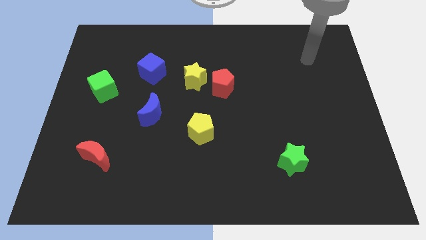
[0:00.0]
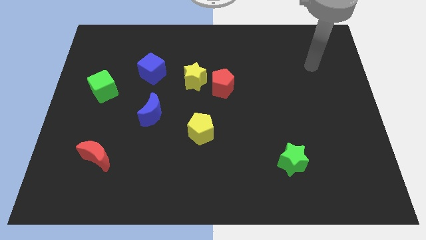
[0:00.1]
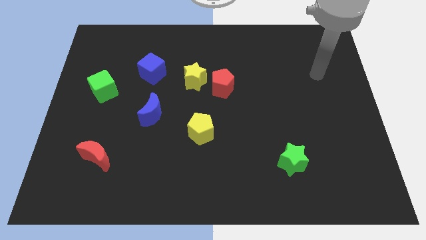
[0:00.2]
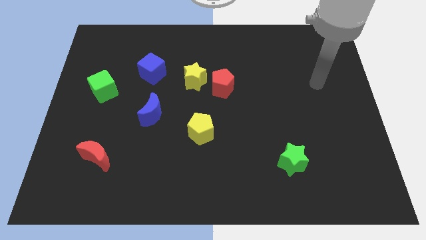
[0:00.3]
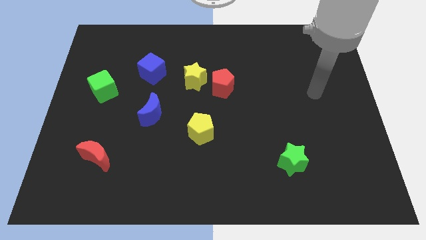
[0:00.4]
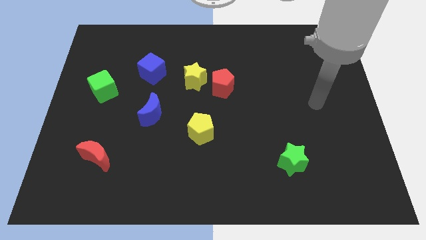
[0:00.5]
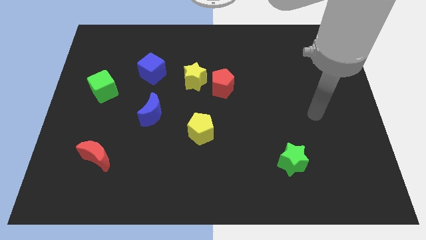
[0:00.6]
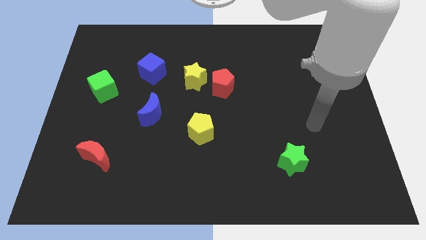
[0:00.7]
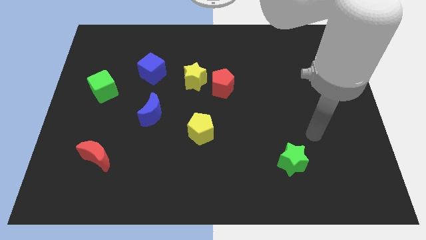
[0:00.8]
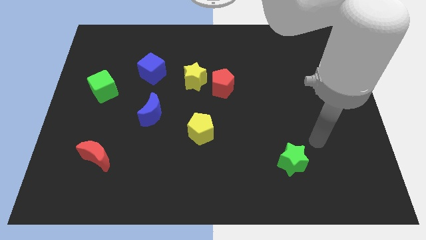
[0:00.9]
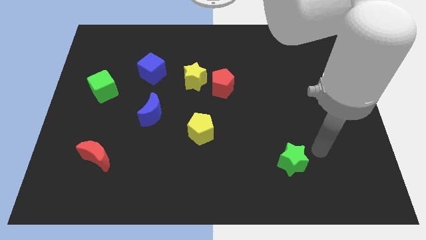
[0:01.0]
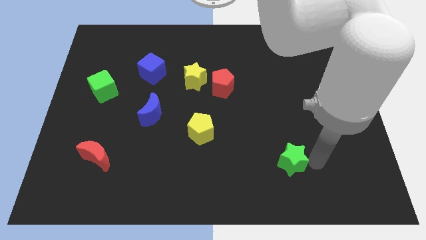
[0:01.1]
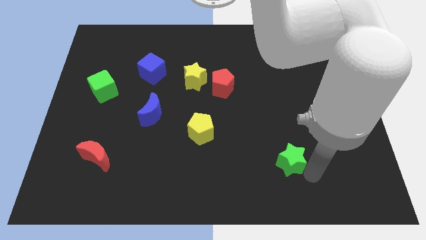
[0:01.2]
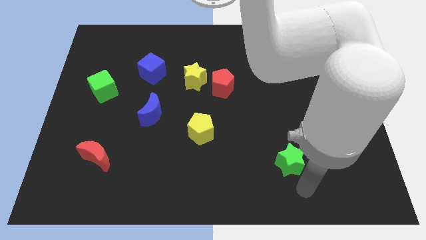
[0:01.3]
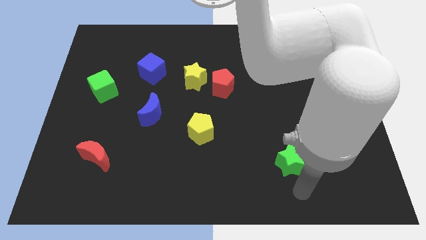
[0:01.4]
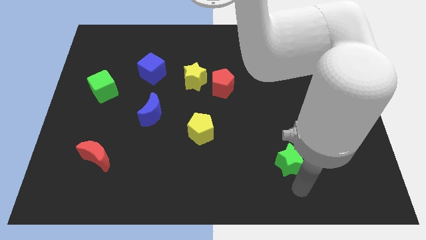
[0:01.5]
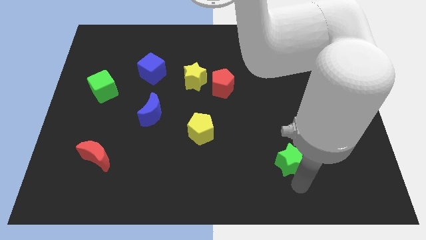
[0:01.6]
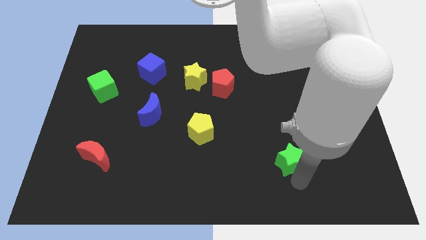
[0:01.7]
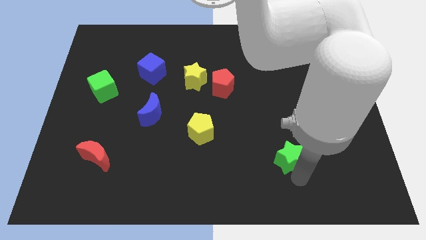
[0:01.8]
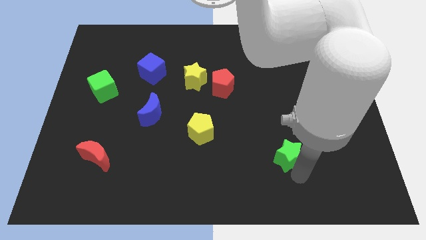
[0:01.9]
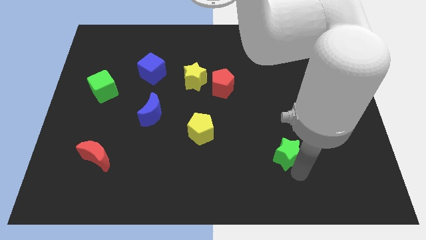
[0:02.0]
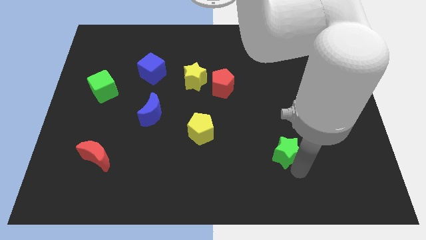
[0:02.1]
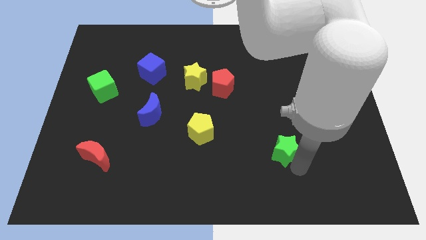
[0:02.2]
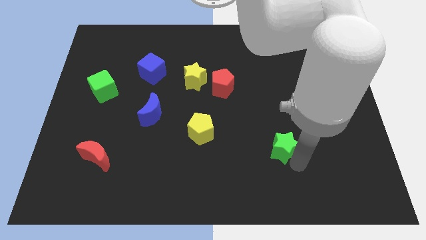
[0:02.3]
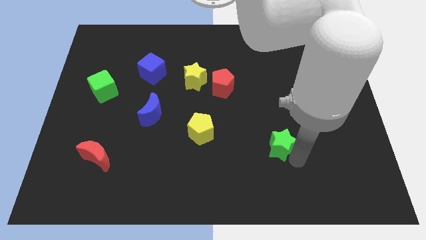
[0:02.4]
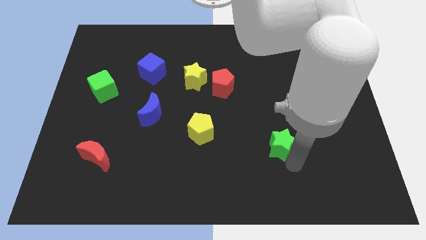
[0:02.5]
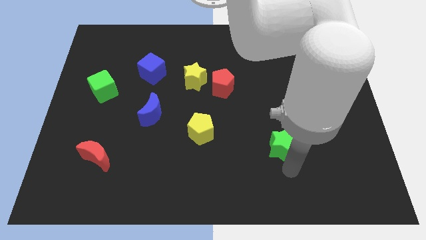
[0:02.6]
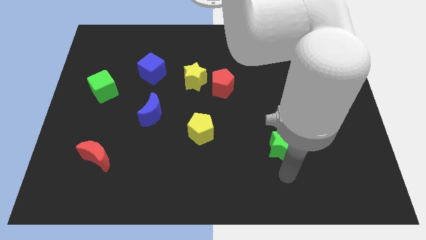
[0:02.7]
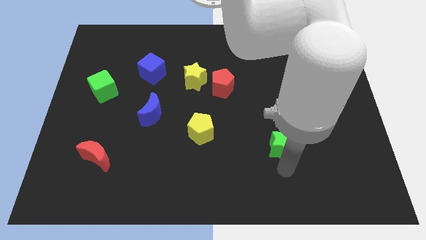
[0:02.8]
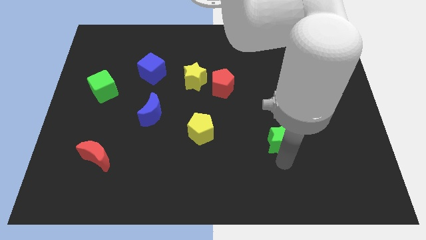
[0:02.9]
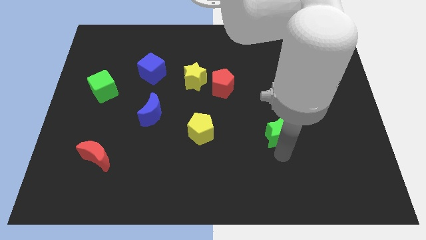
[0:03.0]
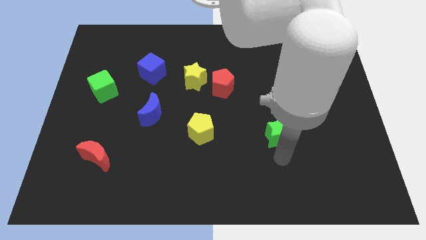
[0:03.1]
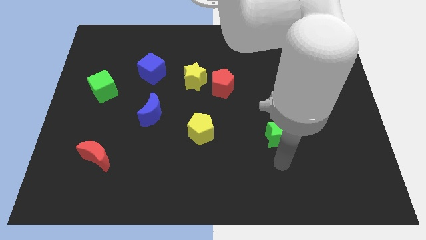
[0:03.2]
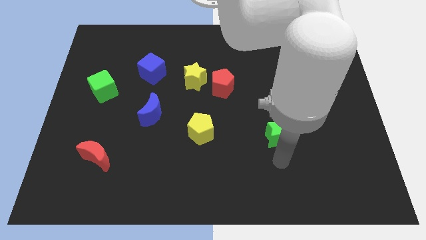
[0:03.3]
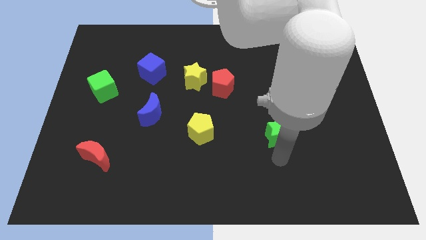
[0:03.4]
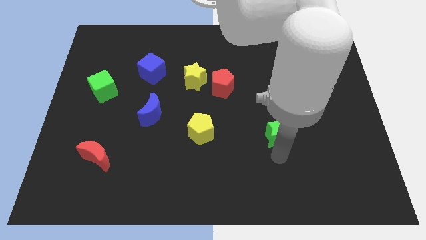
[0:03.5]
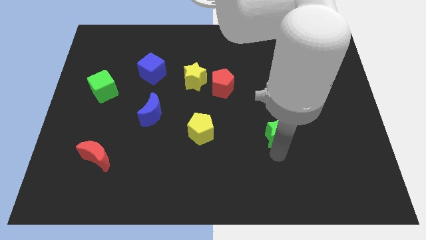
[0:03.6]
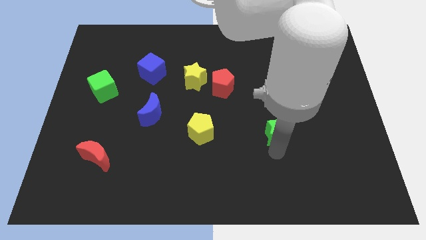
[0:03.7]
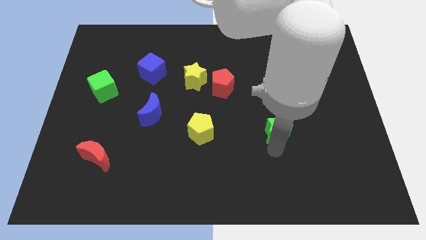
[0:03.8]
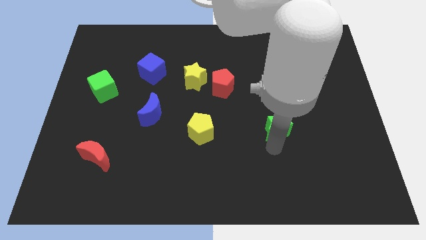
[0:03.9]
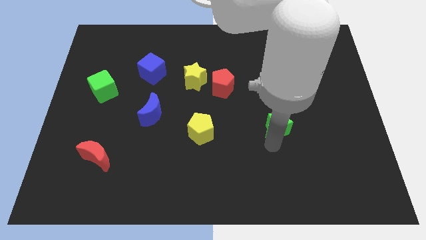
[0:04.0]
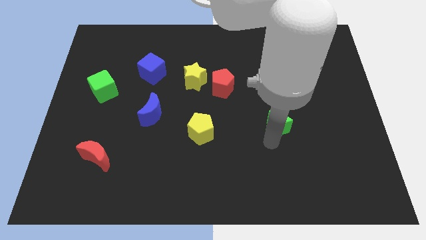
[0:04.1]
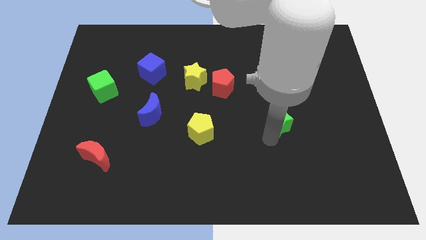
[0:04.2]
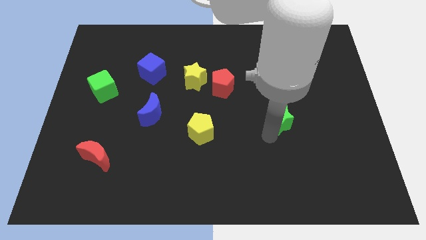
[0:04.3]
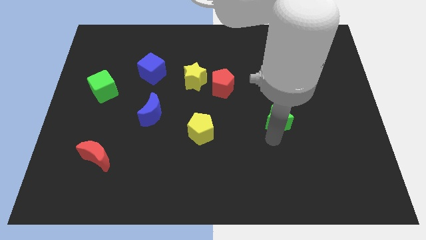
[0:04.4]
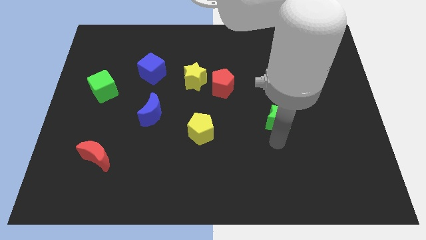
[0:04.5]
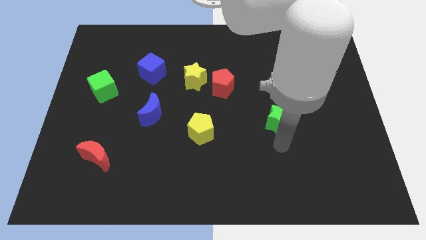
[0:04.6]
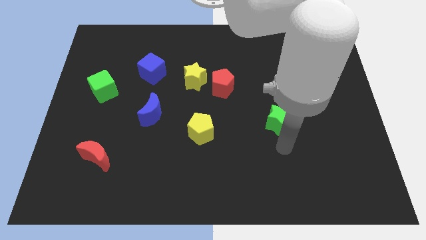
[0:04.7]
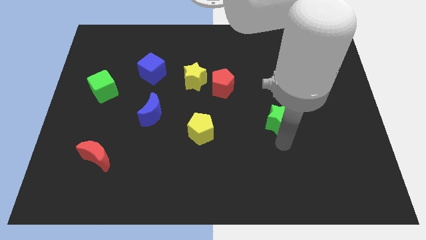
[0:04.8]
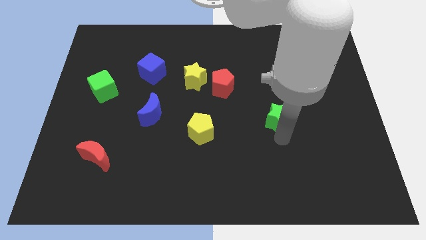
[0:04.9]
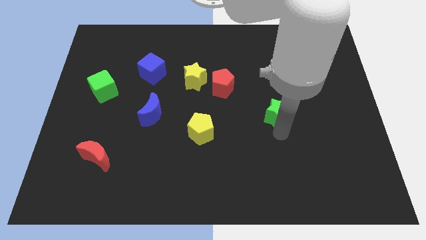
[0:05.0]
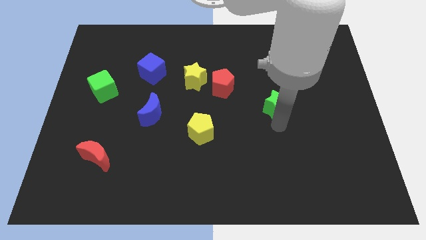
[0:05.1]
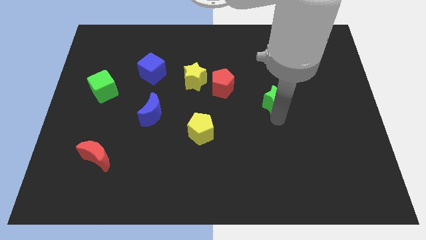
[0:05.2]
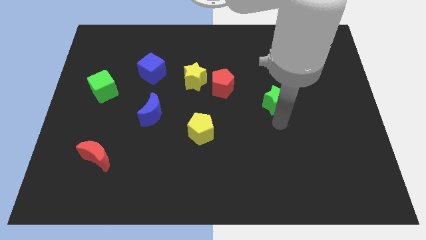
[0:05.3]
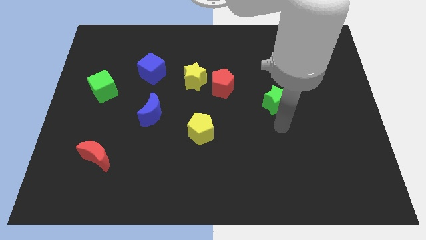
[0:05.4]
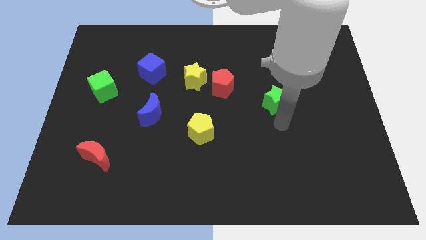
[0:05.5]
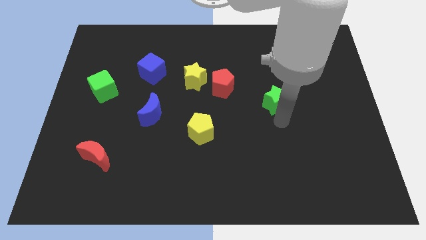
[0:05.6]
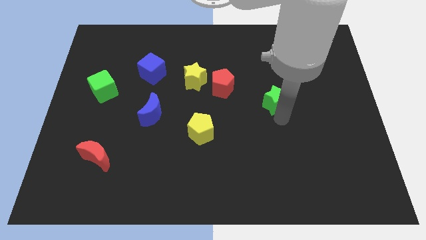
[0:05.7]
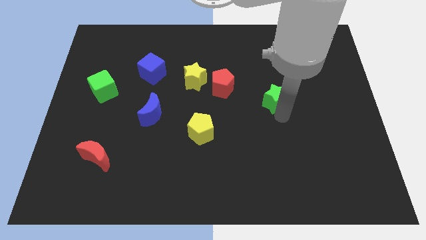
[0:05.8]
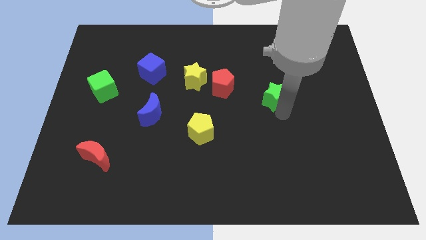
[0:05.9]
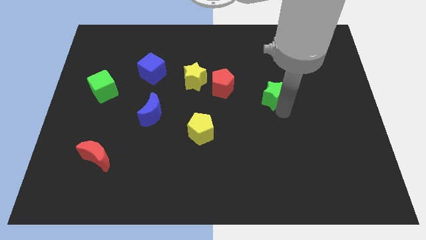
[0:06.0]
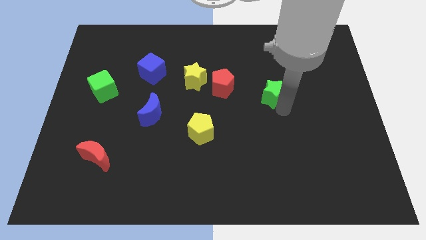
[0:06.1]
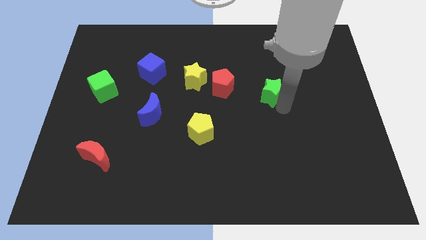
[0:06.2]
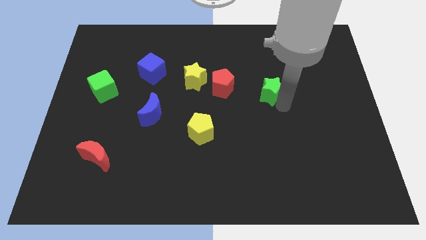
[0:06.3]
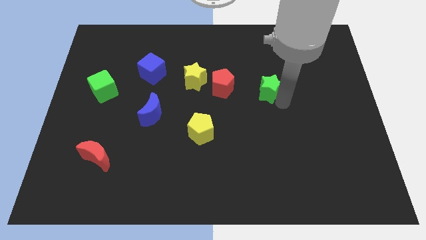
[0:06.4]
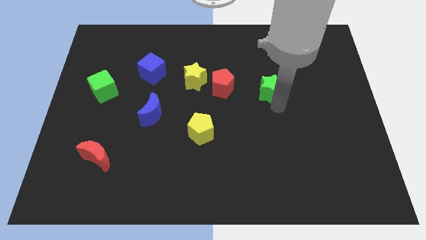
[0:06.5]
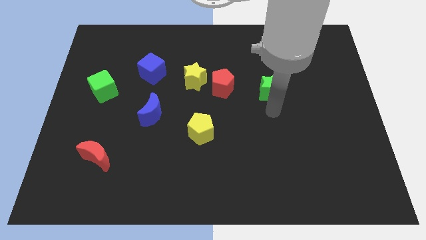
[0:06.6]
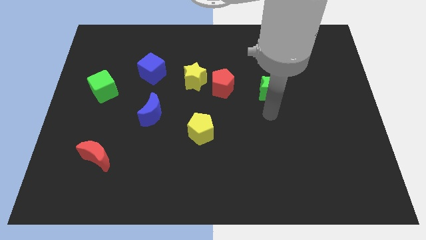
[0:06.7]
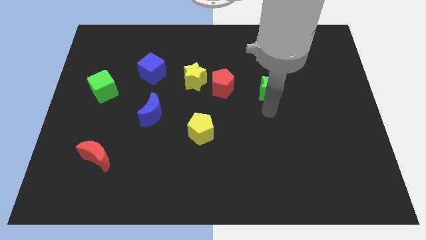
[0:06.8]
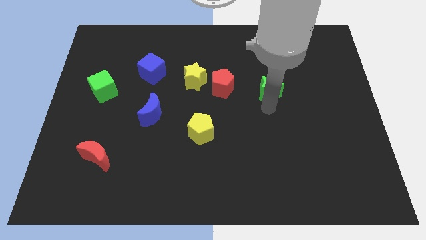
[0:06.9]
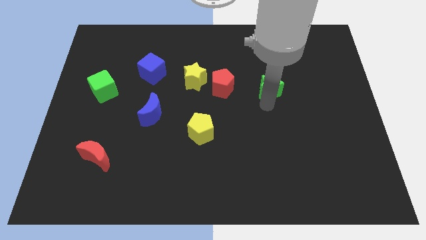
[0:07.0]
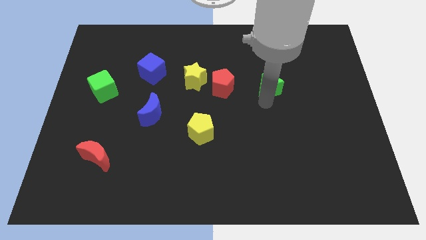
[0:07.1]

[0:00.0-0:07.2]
move the green star up

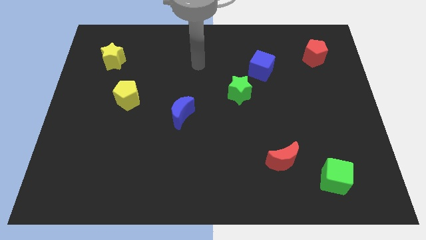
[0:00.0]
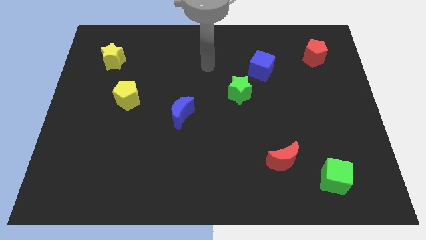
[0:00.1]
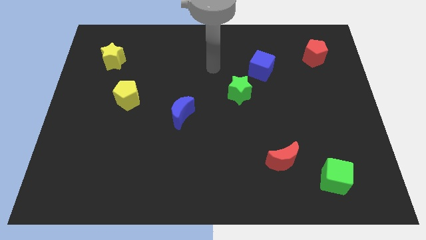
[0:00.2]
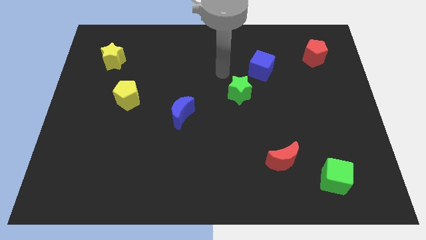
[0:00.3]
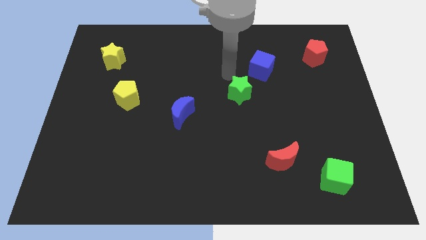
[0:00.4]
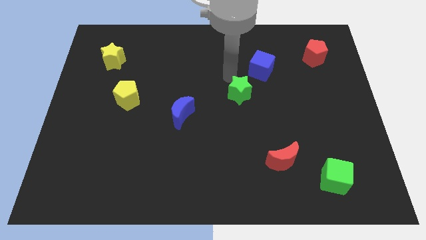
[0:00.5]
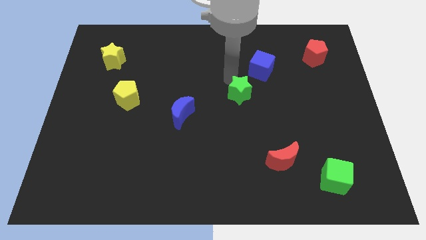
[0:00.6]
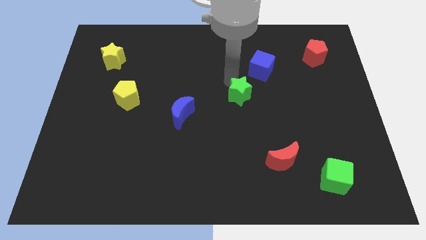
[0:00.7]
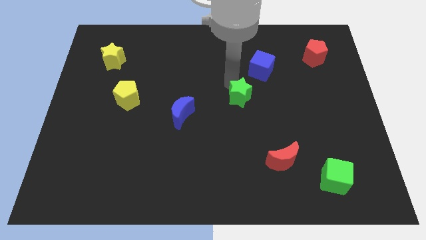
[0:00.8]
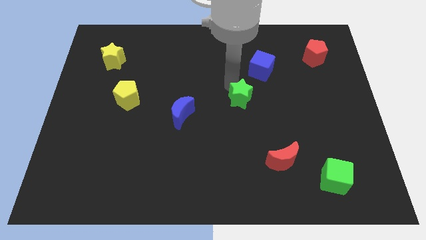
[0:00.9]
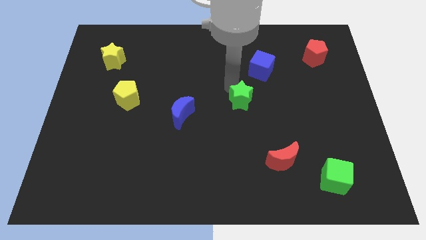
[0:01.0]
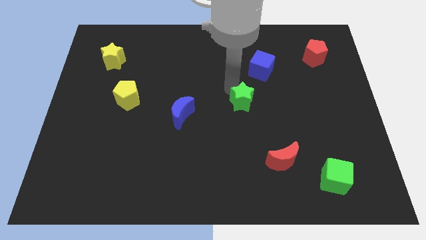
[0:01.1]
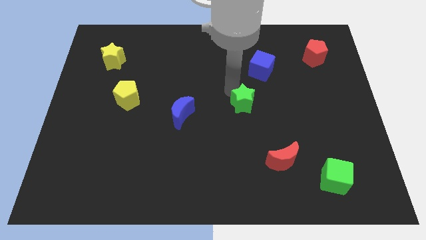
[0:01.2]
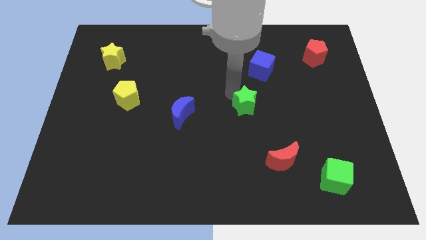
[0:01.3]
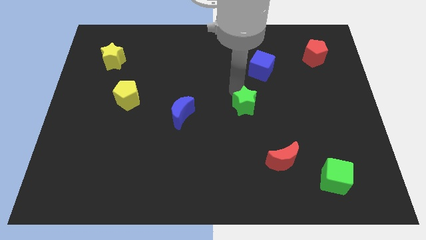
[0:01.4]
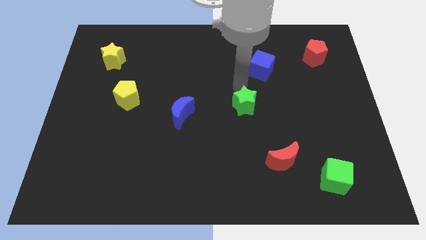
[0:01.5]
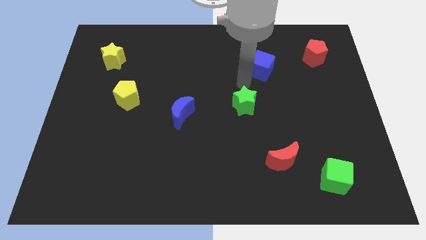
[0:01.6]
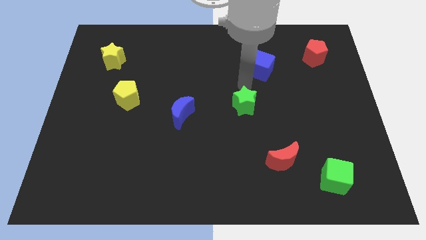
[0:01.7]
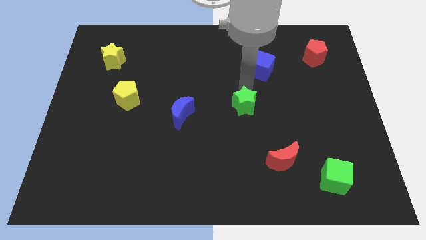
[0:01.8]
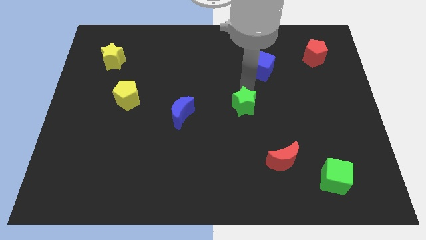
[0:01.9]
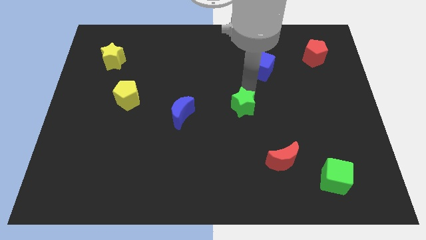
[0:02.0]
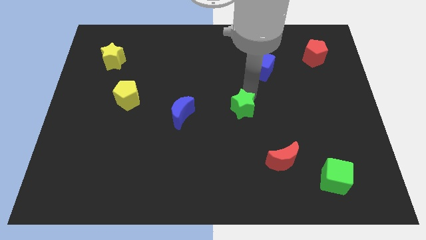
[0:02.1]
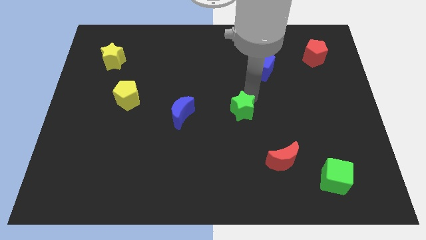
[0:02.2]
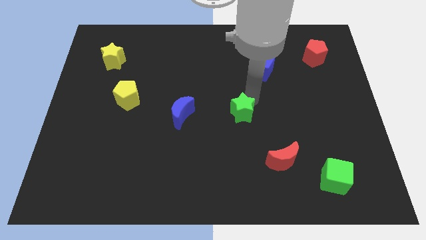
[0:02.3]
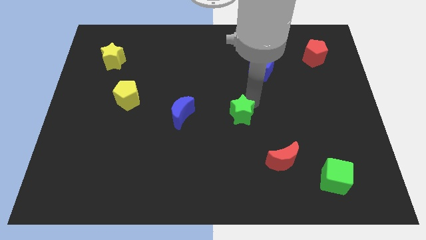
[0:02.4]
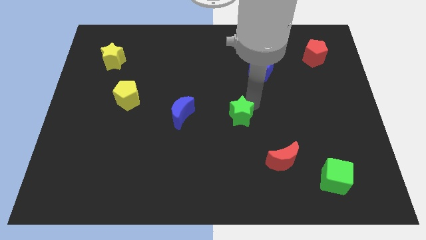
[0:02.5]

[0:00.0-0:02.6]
slightly push the green star downwards
